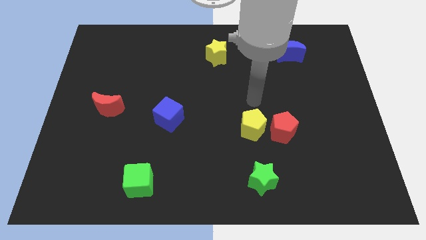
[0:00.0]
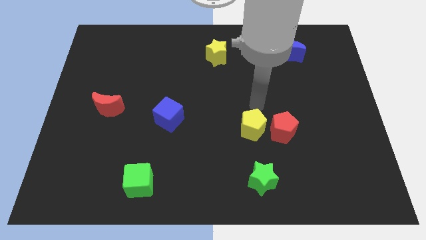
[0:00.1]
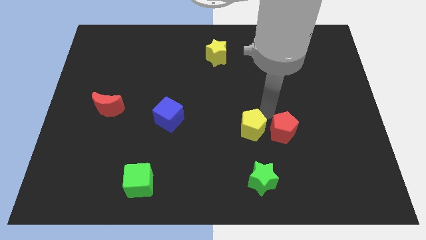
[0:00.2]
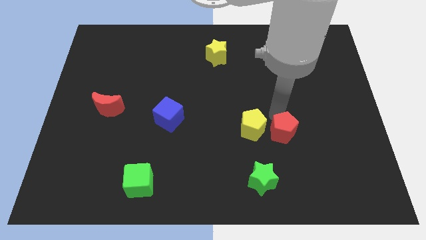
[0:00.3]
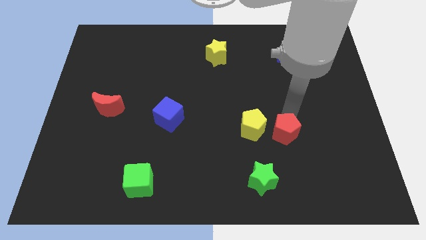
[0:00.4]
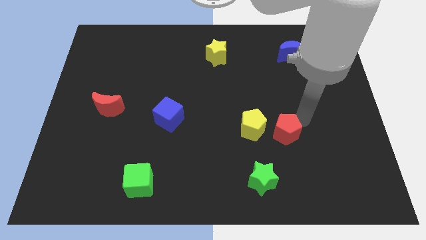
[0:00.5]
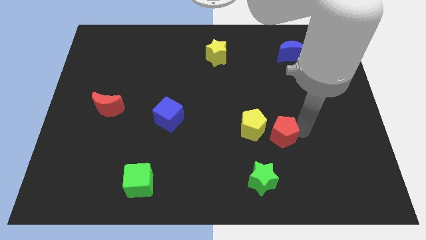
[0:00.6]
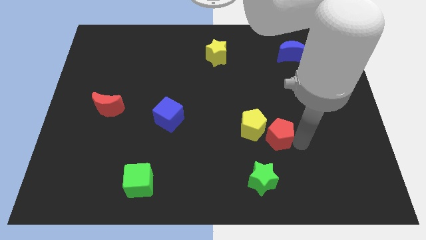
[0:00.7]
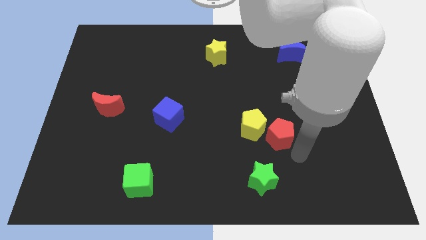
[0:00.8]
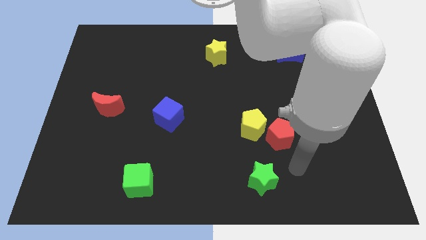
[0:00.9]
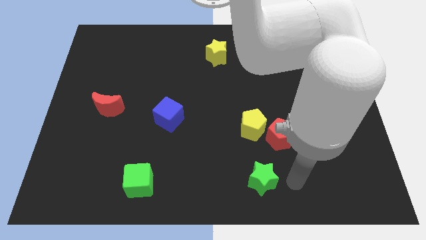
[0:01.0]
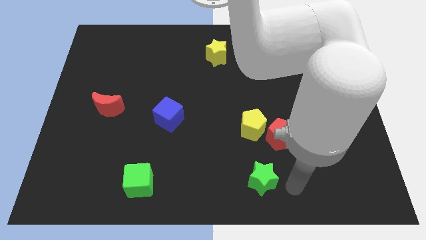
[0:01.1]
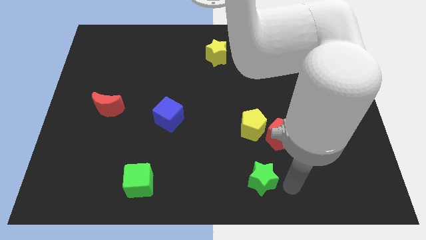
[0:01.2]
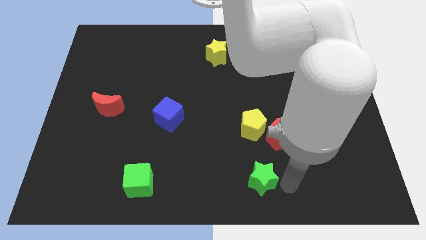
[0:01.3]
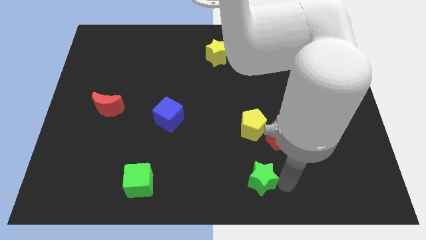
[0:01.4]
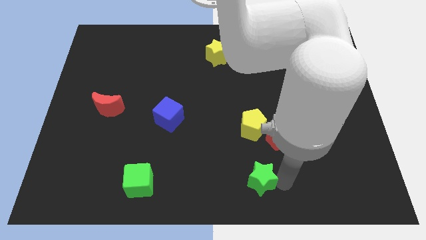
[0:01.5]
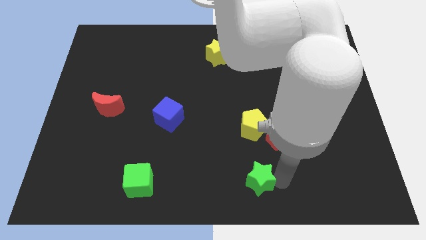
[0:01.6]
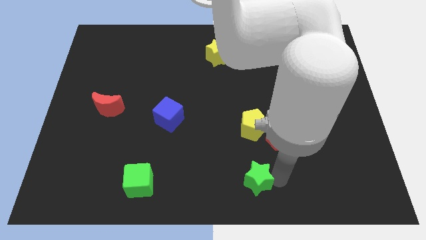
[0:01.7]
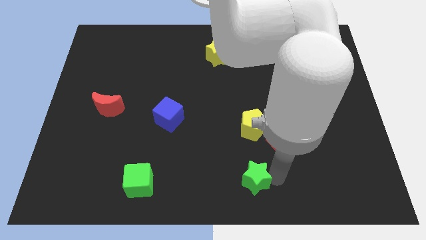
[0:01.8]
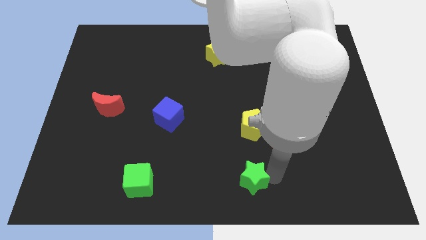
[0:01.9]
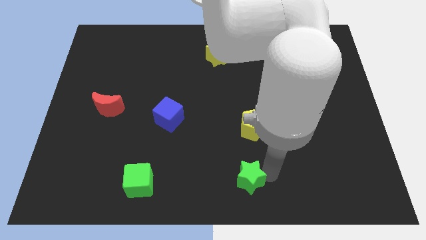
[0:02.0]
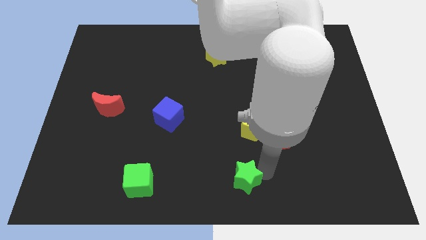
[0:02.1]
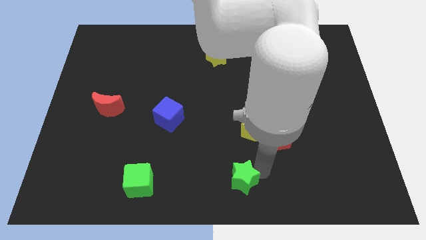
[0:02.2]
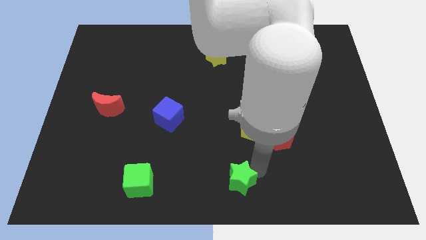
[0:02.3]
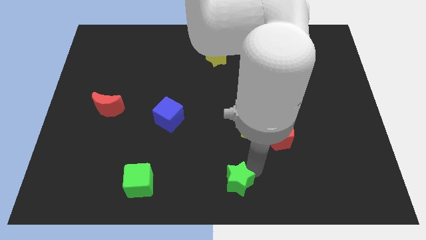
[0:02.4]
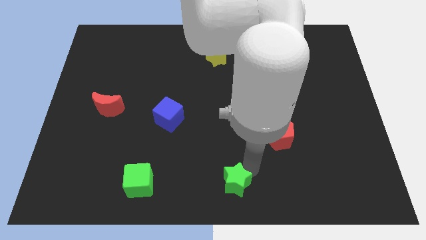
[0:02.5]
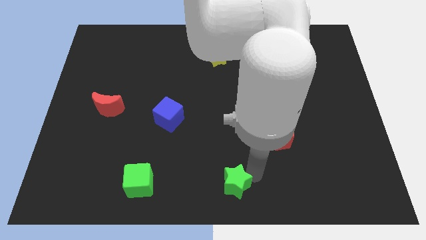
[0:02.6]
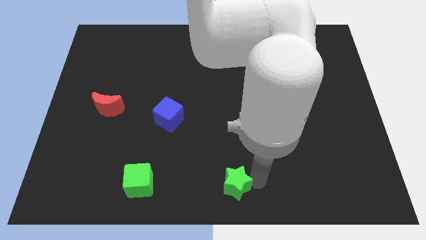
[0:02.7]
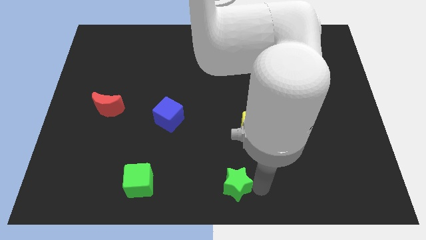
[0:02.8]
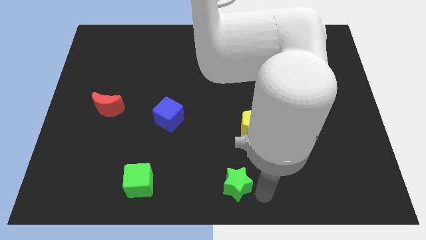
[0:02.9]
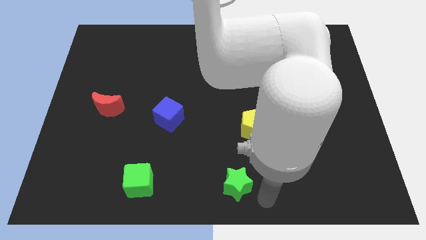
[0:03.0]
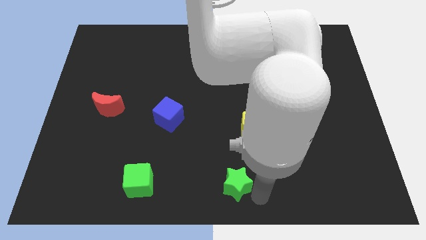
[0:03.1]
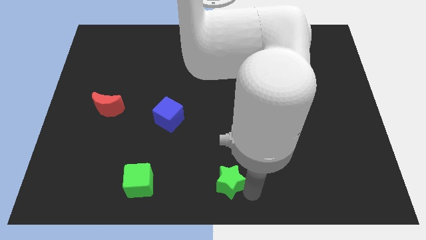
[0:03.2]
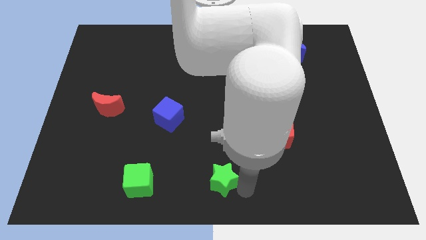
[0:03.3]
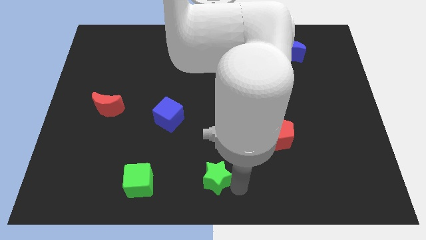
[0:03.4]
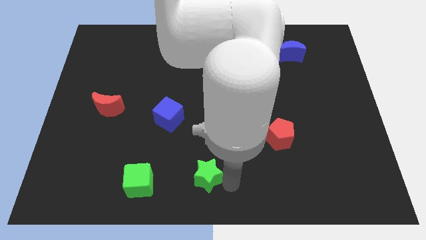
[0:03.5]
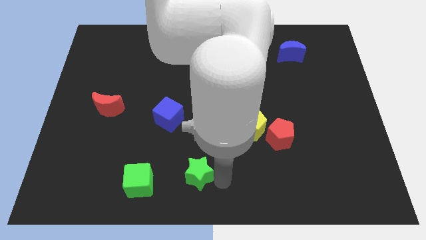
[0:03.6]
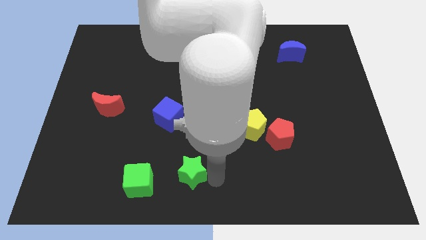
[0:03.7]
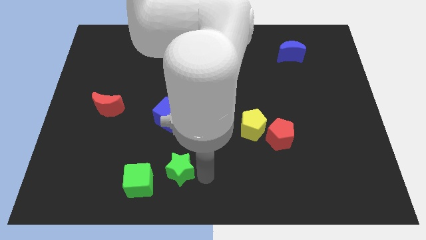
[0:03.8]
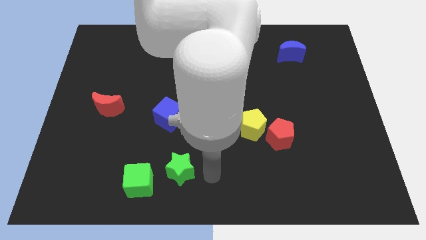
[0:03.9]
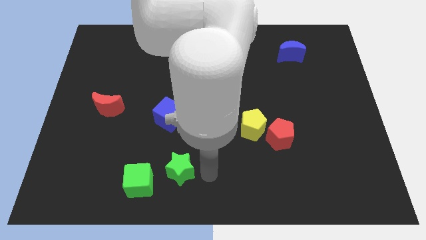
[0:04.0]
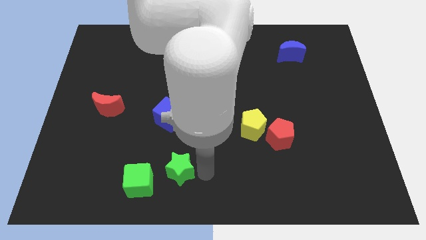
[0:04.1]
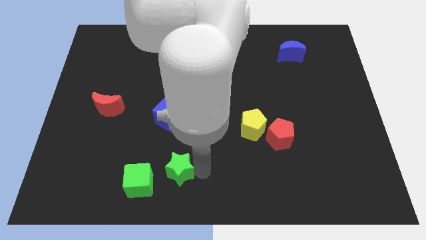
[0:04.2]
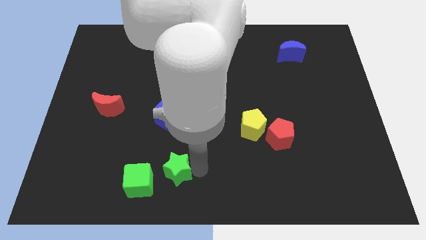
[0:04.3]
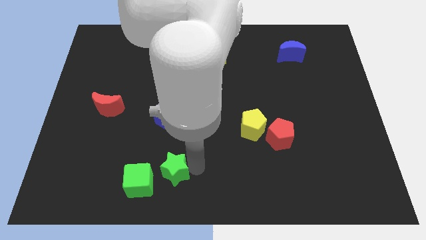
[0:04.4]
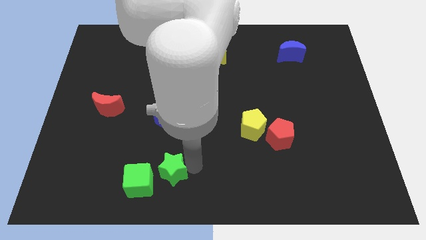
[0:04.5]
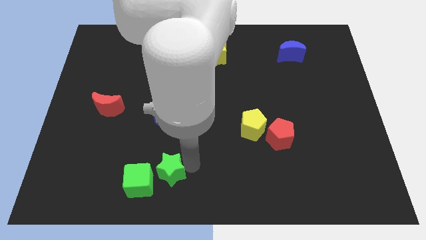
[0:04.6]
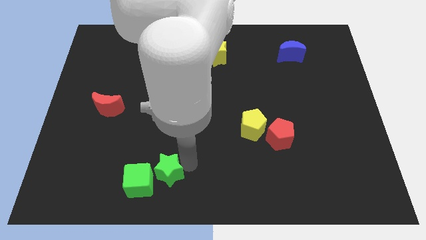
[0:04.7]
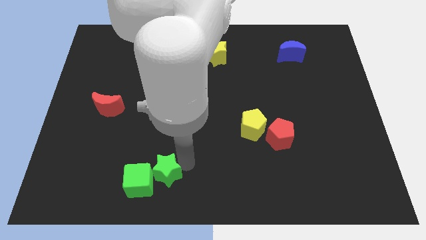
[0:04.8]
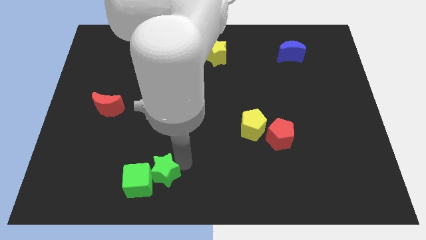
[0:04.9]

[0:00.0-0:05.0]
push the green star left

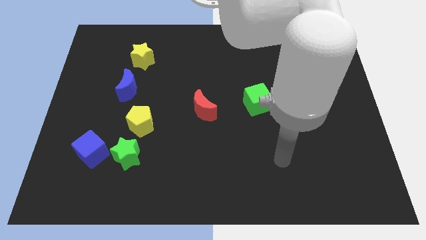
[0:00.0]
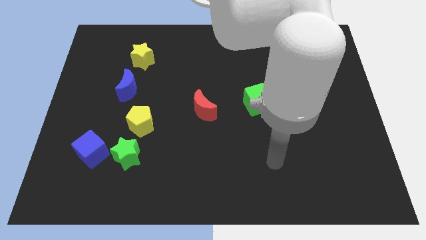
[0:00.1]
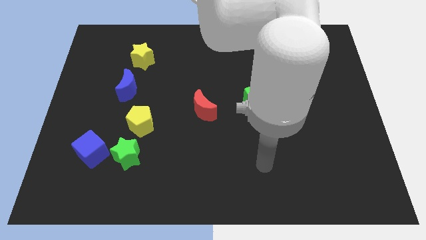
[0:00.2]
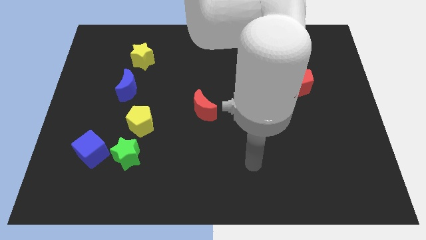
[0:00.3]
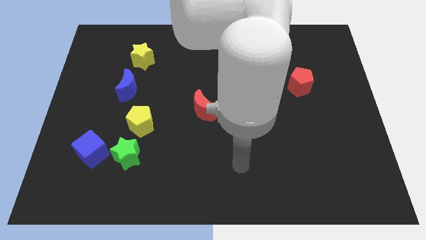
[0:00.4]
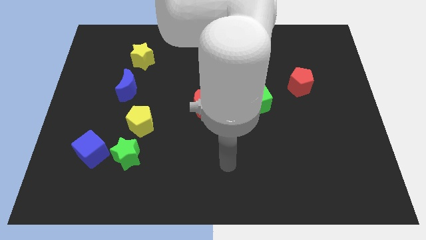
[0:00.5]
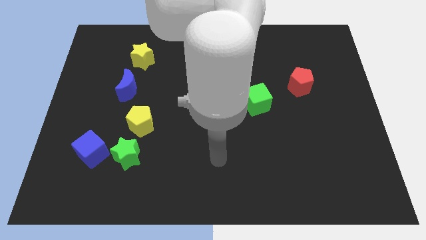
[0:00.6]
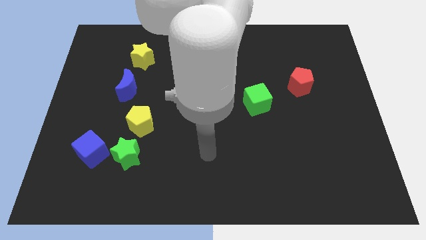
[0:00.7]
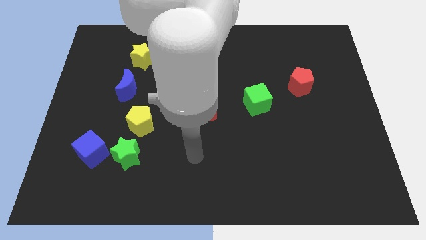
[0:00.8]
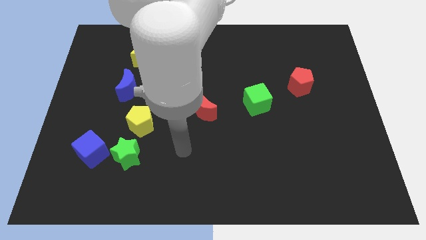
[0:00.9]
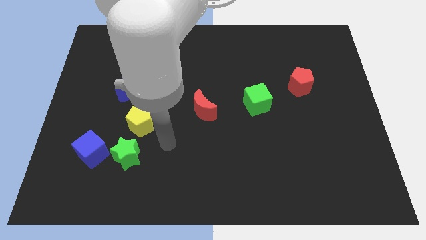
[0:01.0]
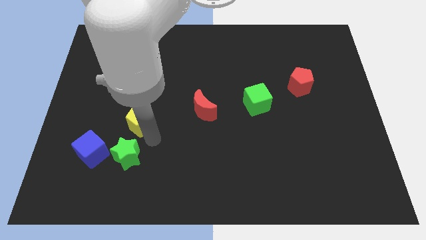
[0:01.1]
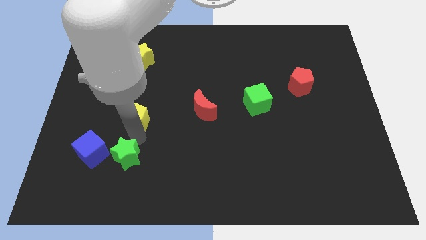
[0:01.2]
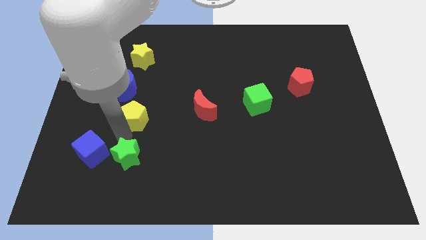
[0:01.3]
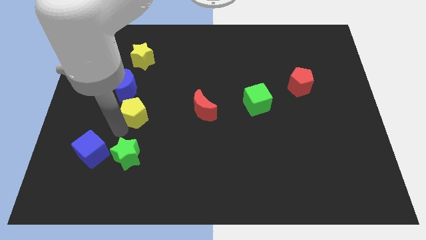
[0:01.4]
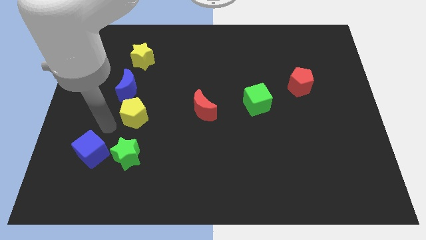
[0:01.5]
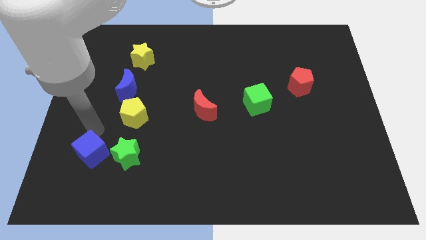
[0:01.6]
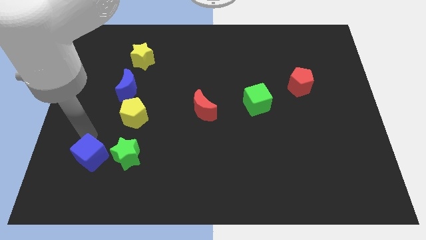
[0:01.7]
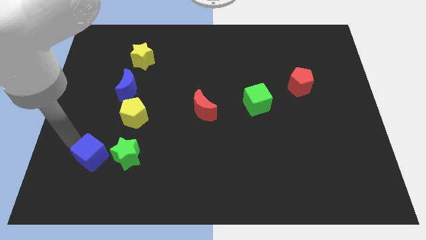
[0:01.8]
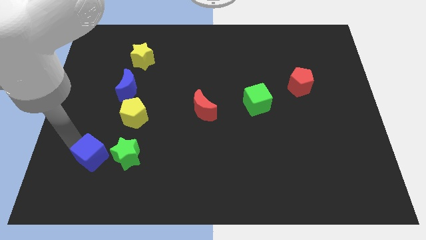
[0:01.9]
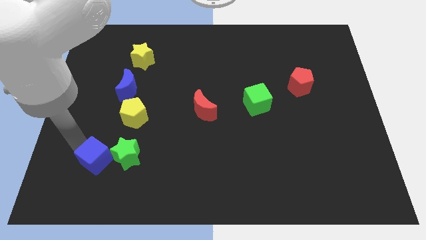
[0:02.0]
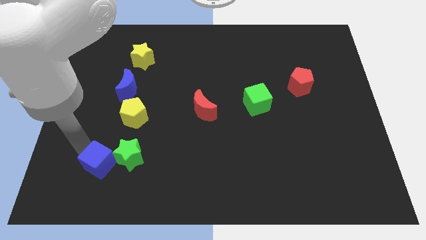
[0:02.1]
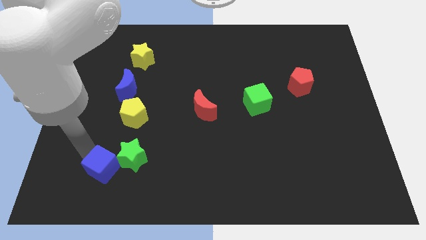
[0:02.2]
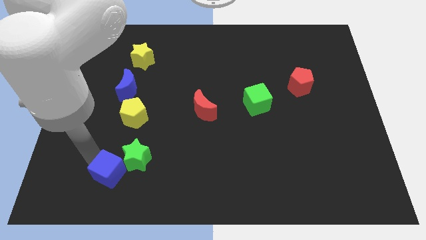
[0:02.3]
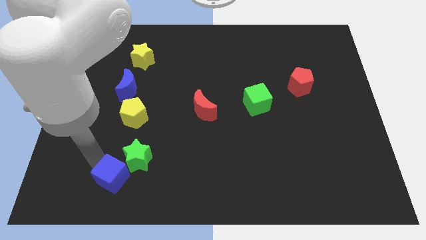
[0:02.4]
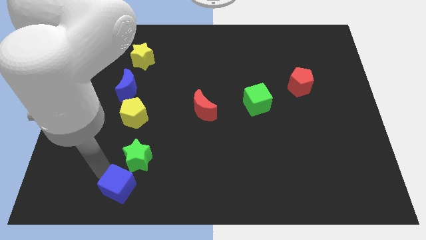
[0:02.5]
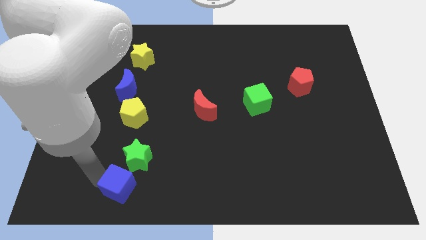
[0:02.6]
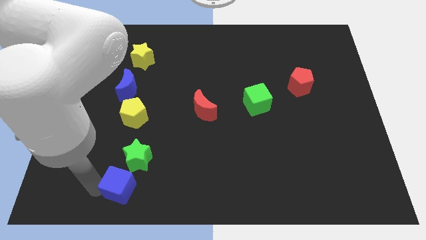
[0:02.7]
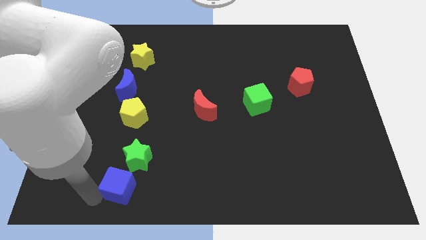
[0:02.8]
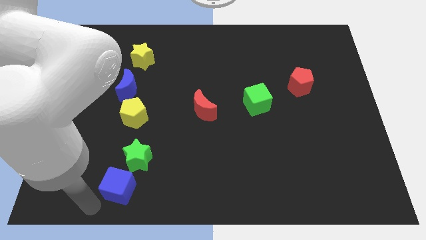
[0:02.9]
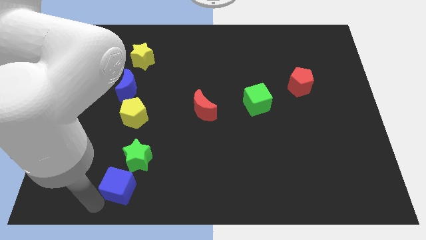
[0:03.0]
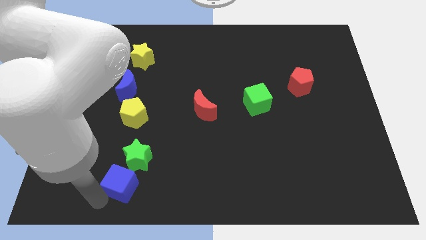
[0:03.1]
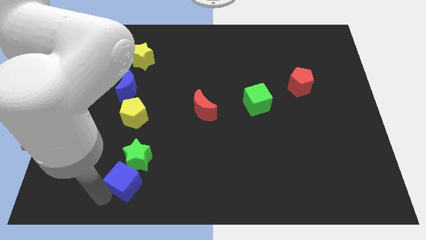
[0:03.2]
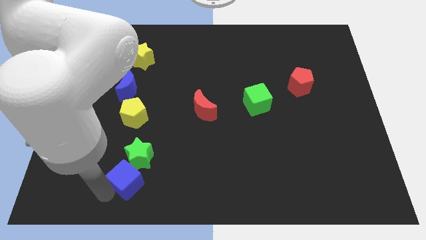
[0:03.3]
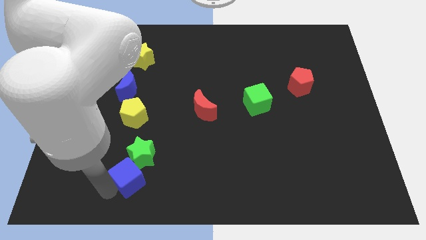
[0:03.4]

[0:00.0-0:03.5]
push the blue cube right slightly
